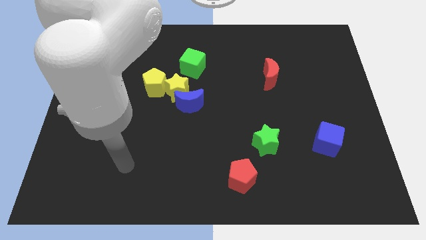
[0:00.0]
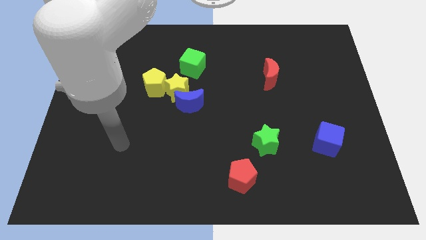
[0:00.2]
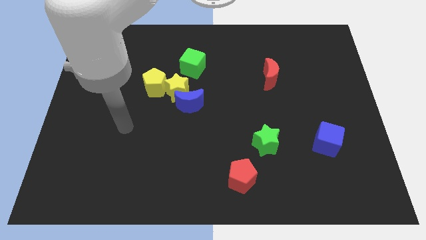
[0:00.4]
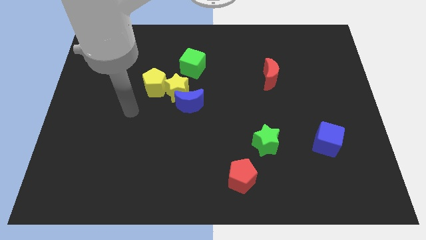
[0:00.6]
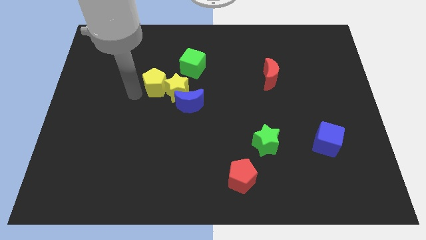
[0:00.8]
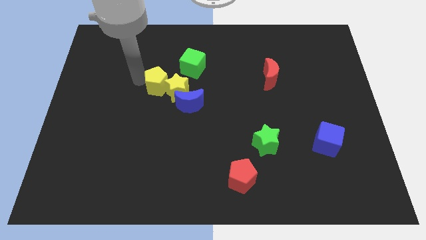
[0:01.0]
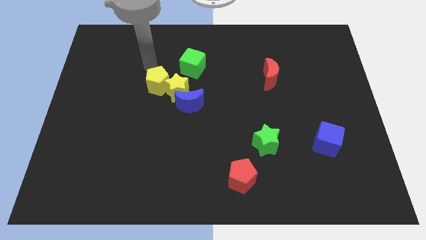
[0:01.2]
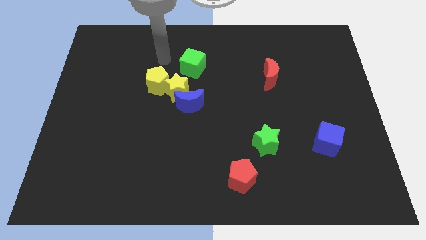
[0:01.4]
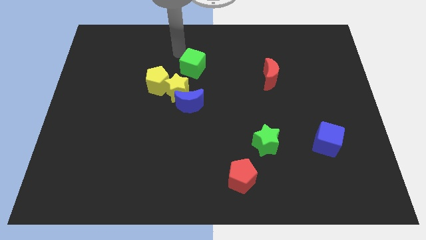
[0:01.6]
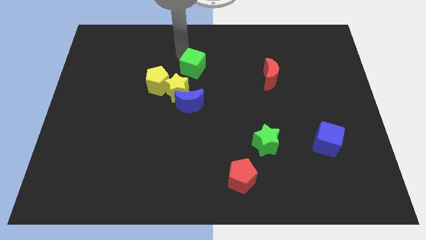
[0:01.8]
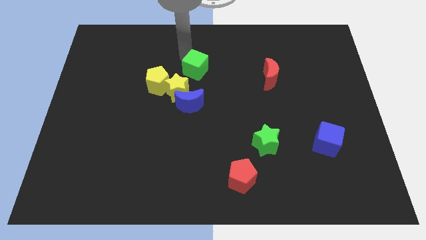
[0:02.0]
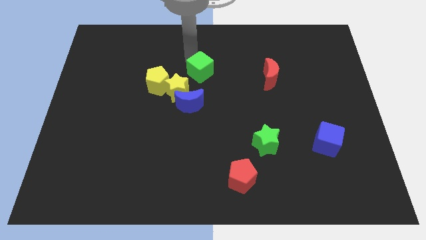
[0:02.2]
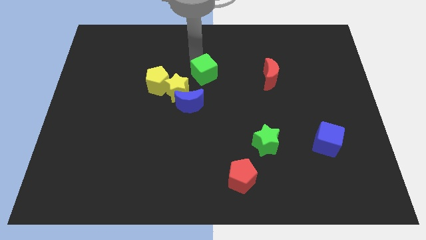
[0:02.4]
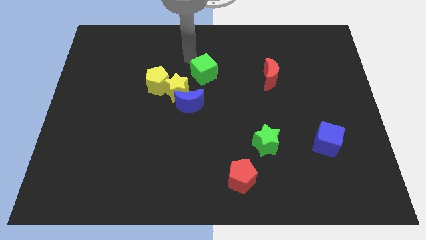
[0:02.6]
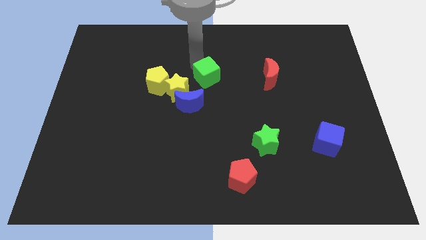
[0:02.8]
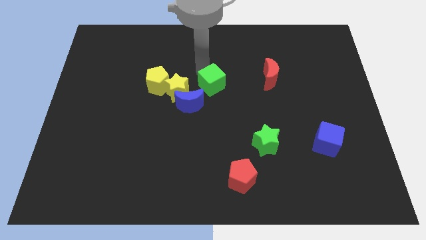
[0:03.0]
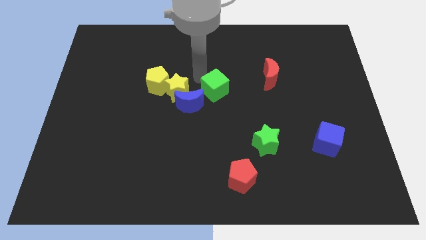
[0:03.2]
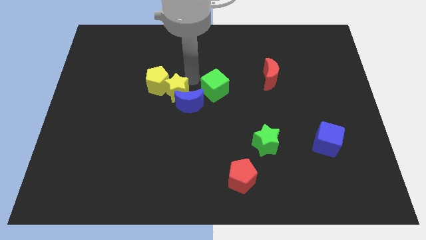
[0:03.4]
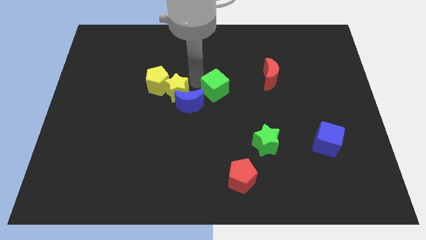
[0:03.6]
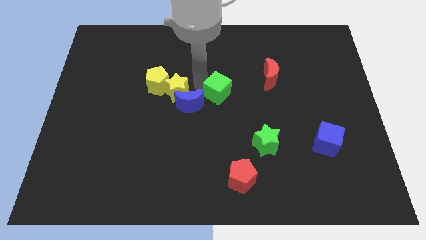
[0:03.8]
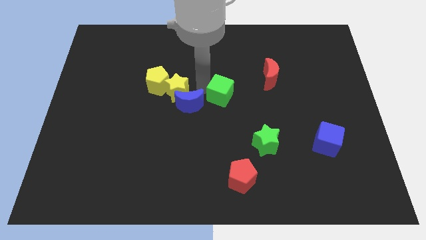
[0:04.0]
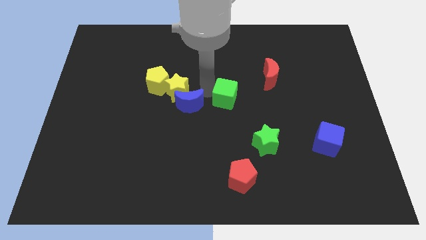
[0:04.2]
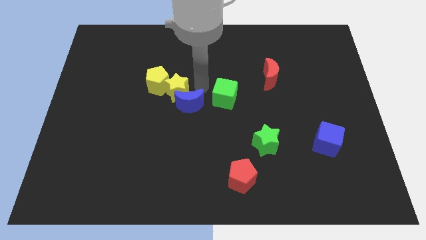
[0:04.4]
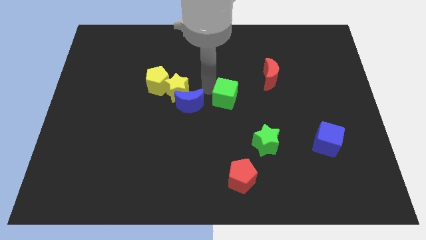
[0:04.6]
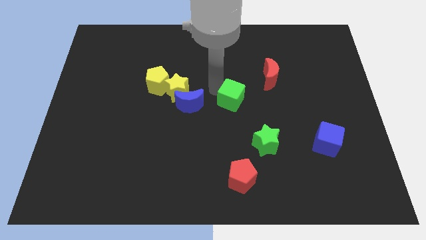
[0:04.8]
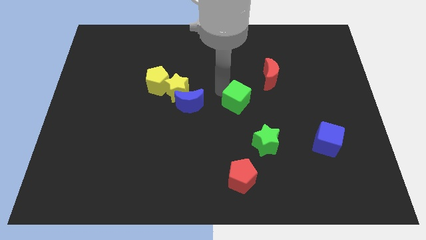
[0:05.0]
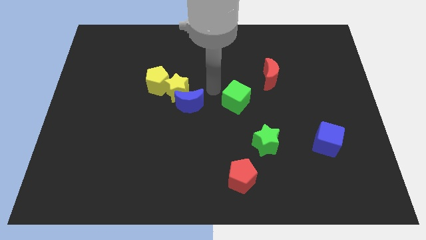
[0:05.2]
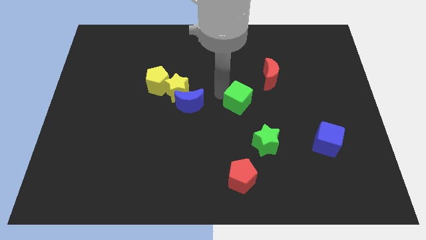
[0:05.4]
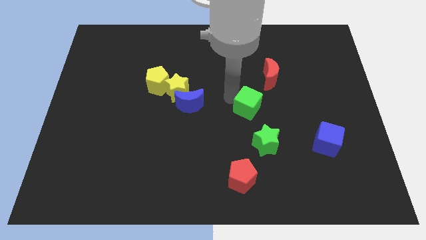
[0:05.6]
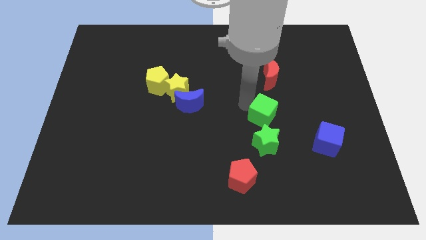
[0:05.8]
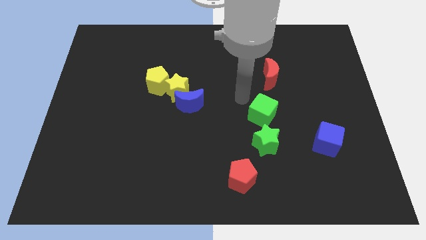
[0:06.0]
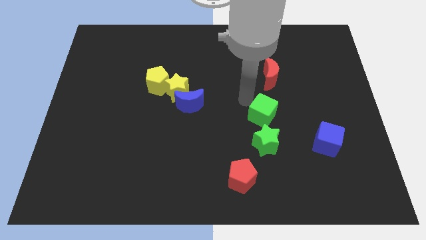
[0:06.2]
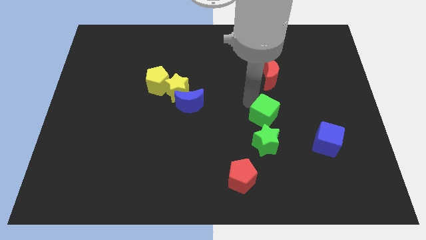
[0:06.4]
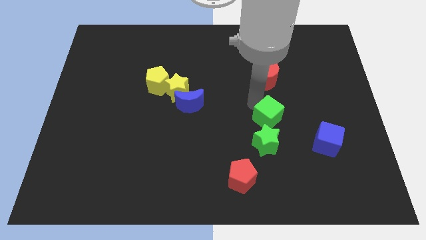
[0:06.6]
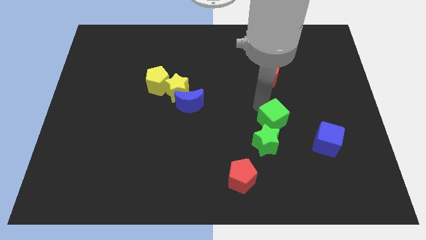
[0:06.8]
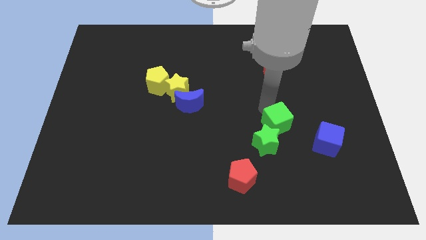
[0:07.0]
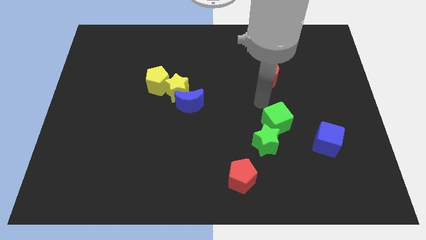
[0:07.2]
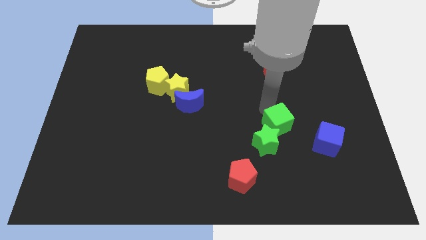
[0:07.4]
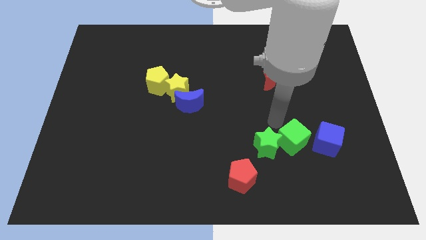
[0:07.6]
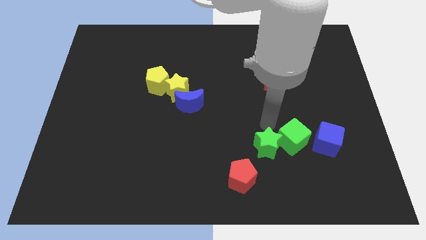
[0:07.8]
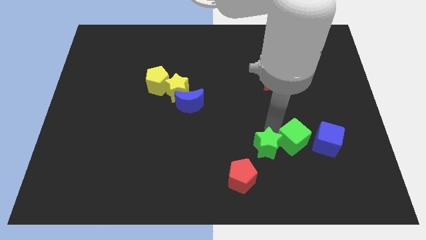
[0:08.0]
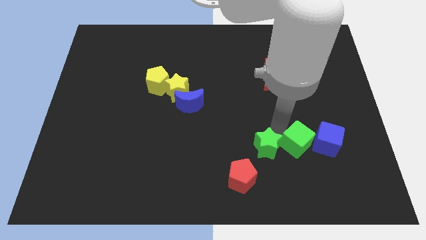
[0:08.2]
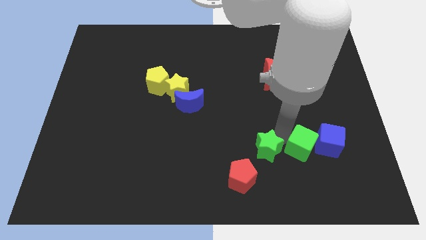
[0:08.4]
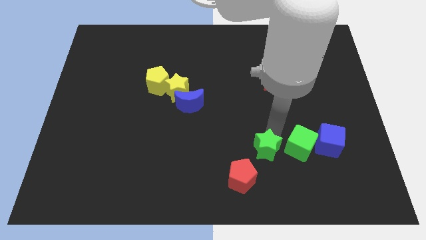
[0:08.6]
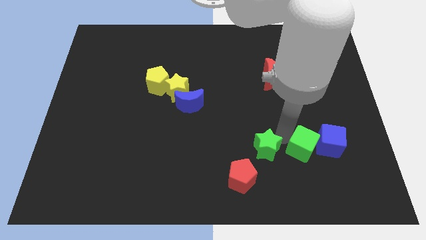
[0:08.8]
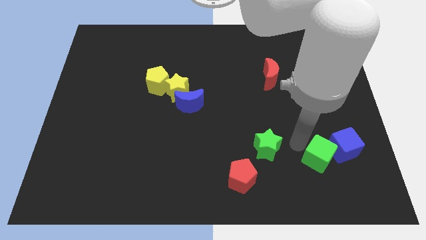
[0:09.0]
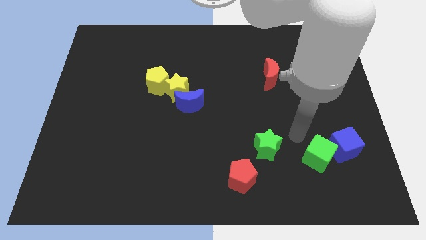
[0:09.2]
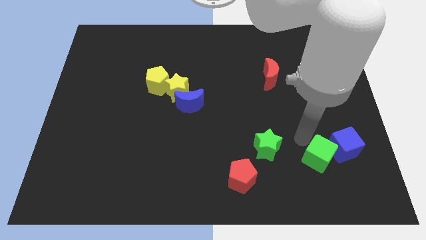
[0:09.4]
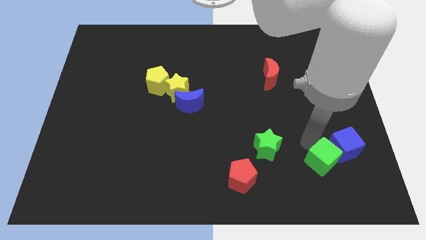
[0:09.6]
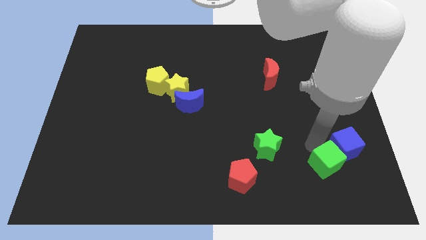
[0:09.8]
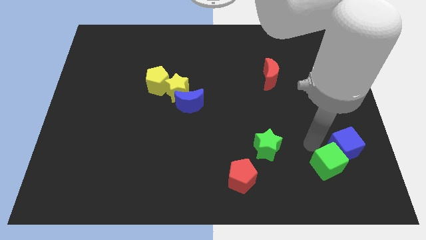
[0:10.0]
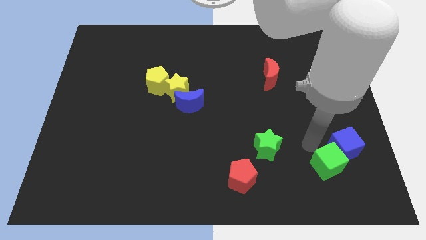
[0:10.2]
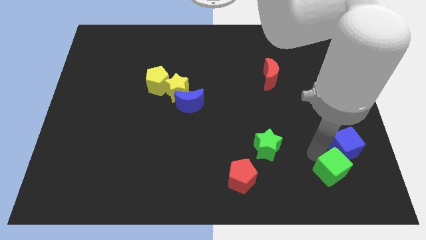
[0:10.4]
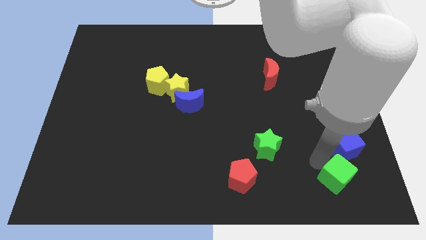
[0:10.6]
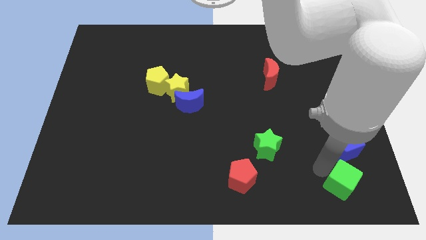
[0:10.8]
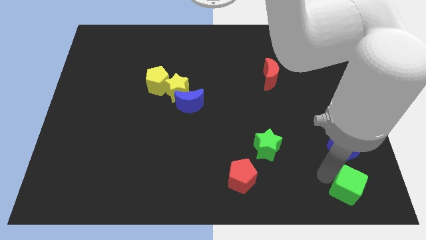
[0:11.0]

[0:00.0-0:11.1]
put the green cube to the bottom right corner

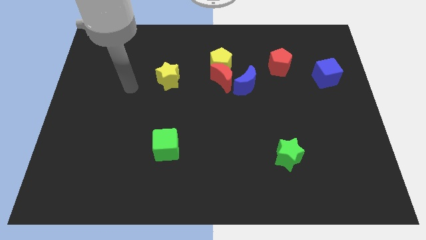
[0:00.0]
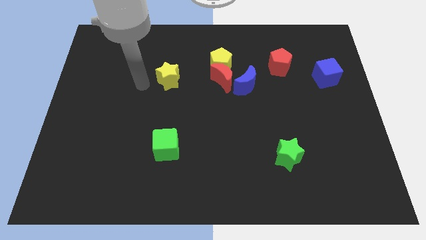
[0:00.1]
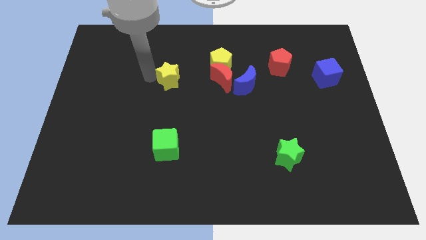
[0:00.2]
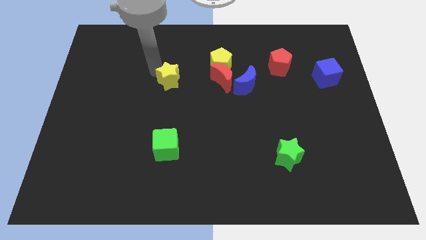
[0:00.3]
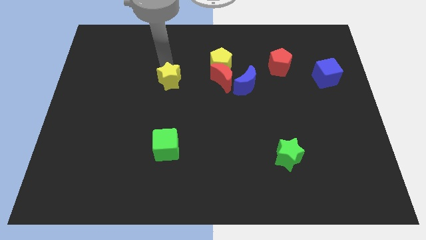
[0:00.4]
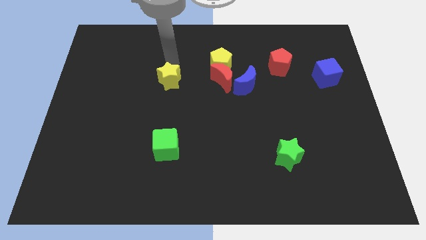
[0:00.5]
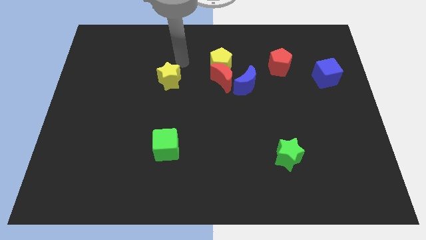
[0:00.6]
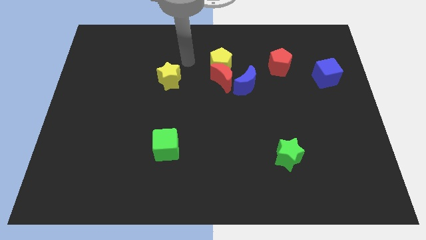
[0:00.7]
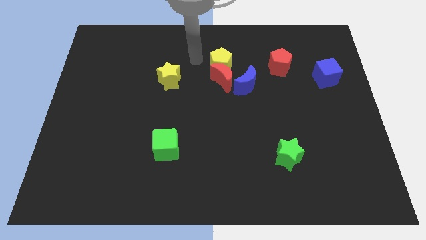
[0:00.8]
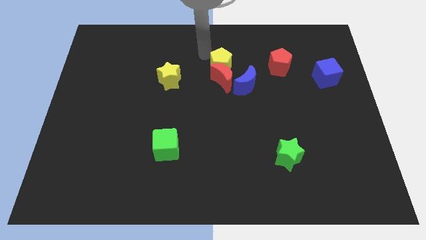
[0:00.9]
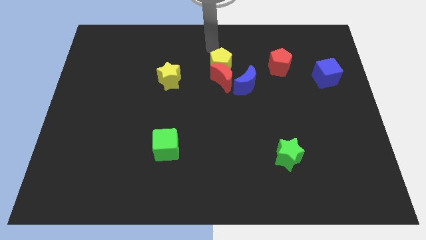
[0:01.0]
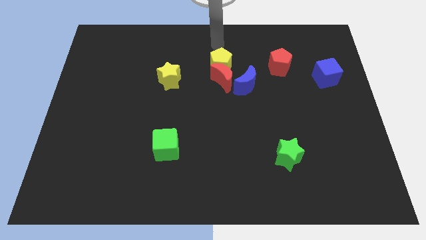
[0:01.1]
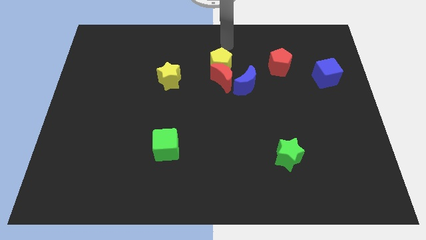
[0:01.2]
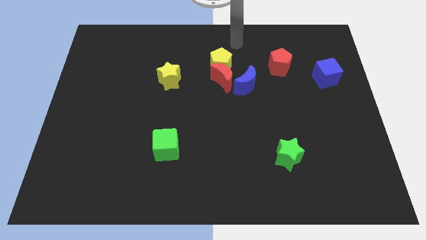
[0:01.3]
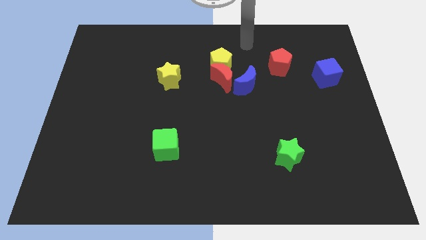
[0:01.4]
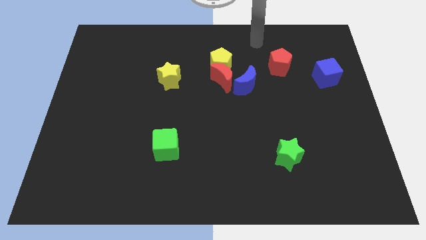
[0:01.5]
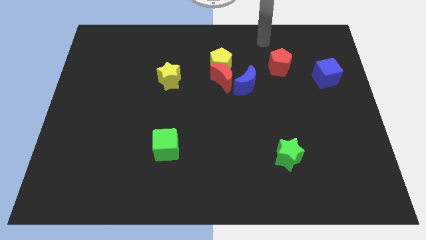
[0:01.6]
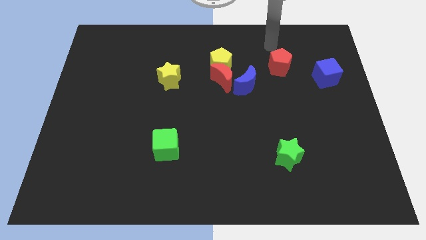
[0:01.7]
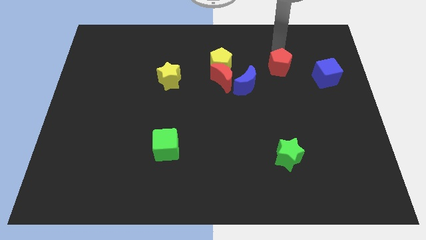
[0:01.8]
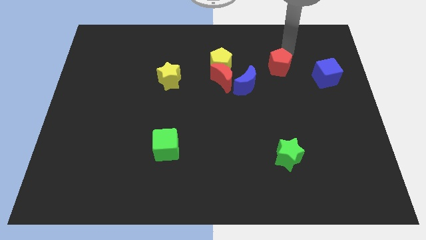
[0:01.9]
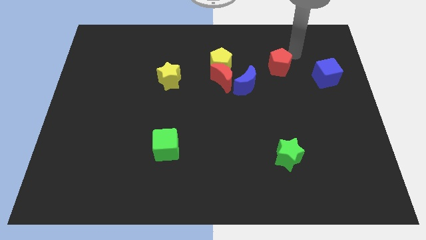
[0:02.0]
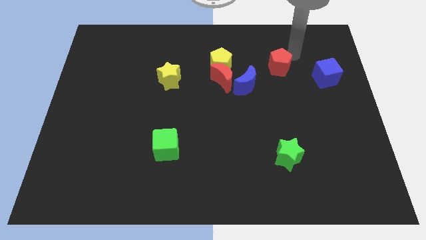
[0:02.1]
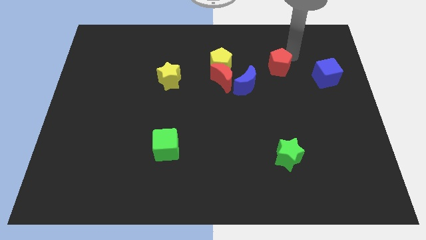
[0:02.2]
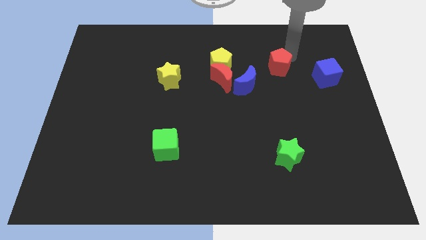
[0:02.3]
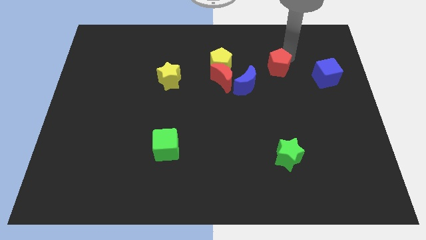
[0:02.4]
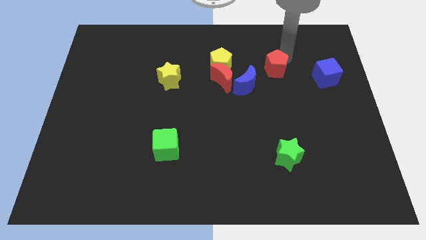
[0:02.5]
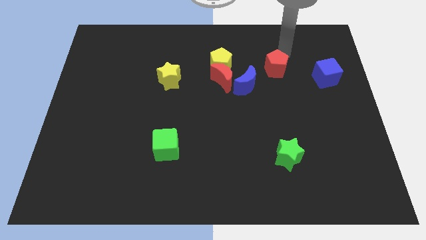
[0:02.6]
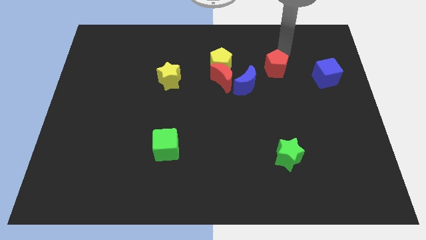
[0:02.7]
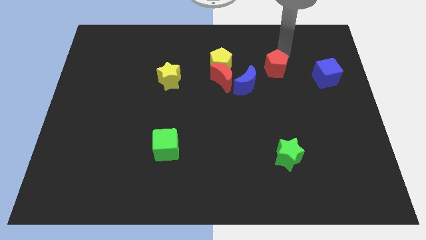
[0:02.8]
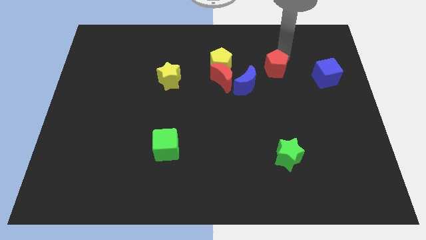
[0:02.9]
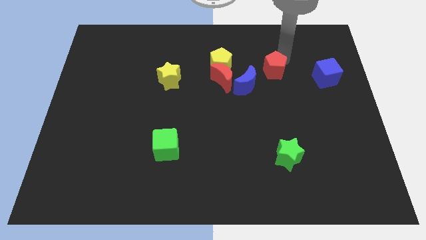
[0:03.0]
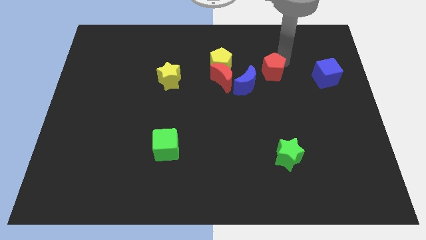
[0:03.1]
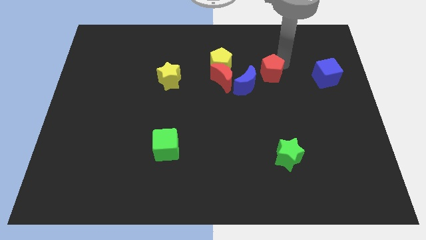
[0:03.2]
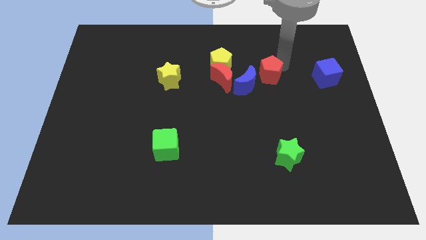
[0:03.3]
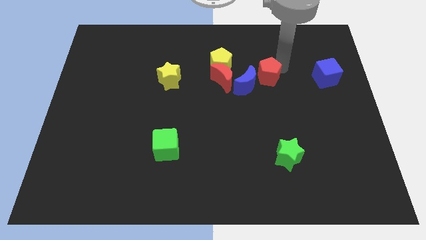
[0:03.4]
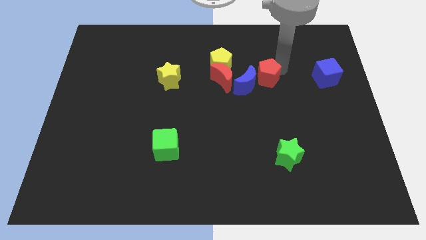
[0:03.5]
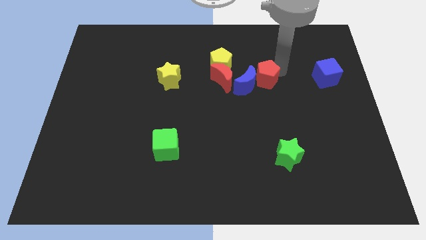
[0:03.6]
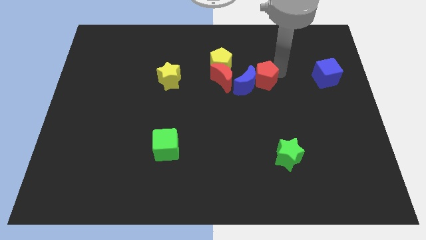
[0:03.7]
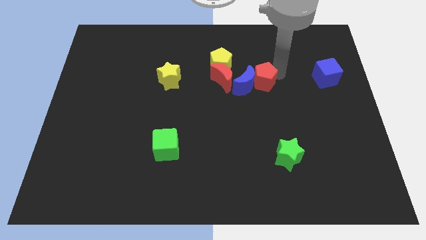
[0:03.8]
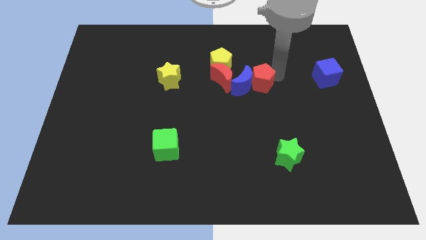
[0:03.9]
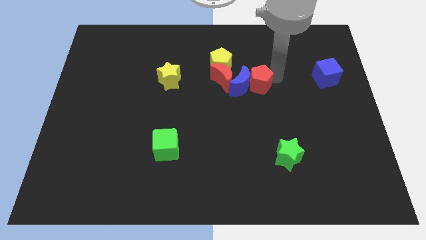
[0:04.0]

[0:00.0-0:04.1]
put the red pentagon to the center
